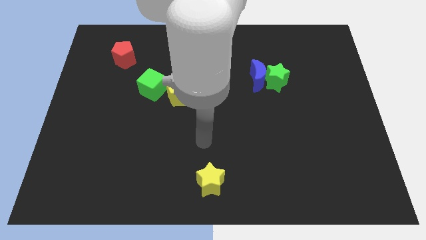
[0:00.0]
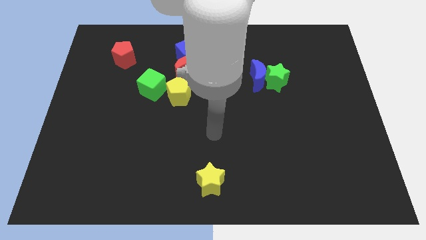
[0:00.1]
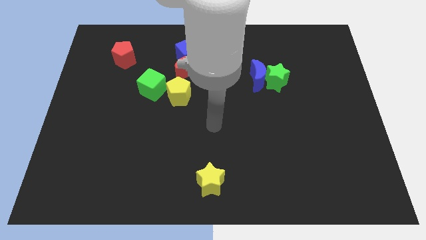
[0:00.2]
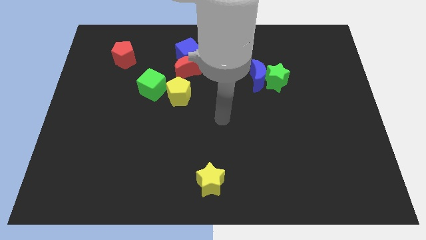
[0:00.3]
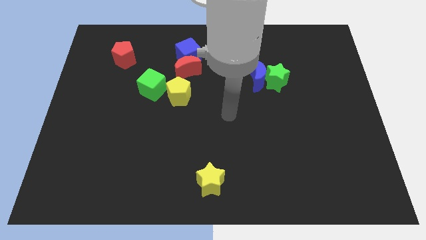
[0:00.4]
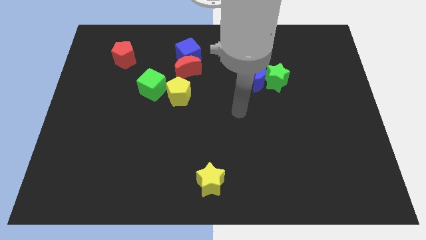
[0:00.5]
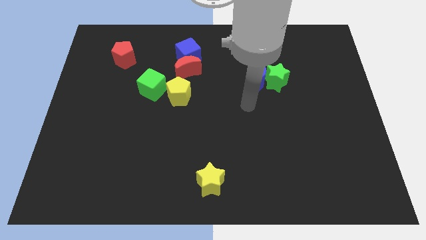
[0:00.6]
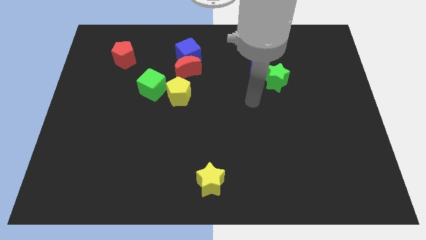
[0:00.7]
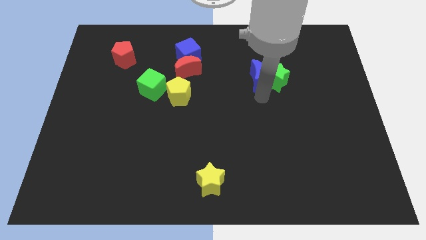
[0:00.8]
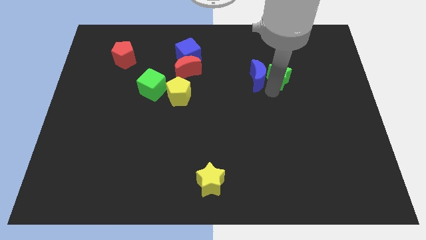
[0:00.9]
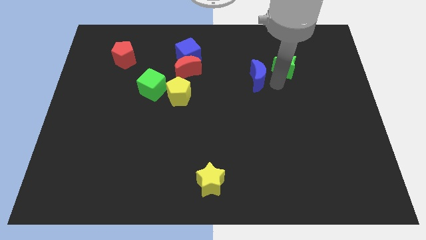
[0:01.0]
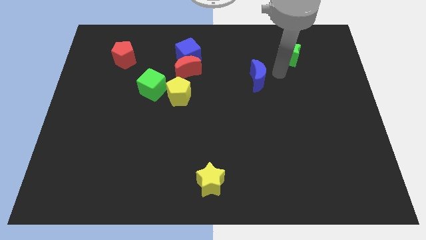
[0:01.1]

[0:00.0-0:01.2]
separate the blue moon from the green star

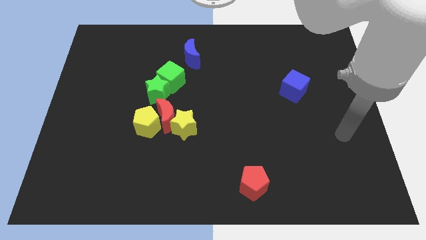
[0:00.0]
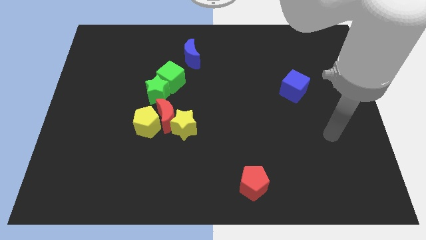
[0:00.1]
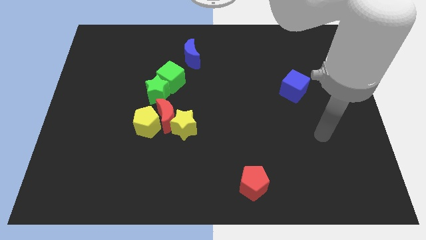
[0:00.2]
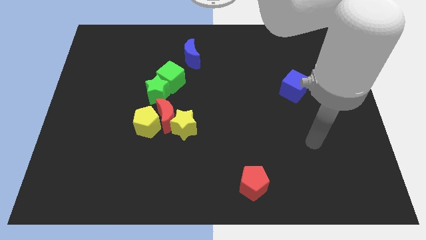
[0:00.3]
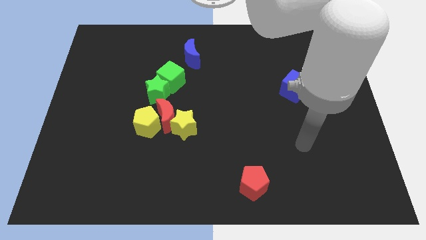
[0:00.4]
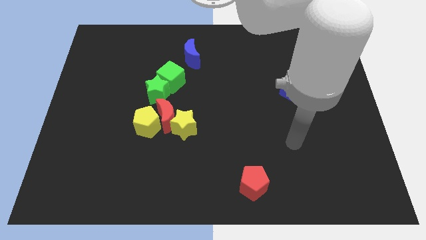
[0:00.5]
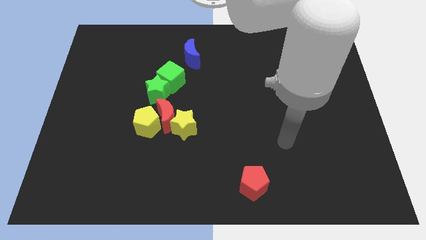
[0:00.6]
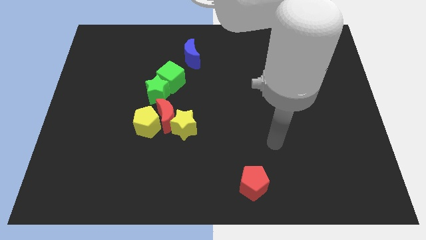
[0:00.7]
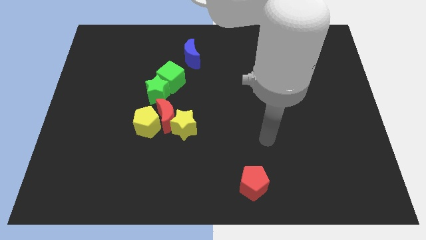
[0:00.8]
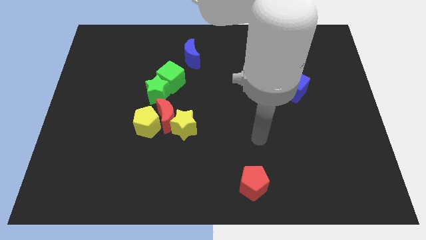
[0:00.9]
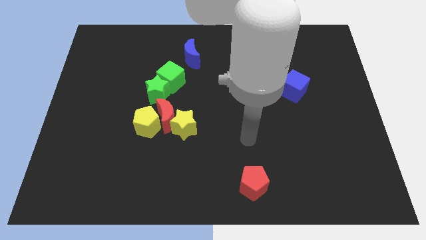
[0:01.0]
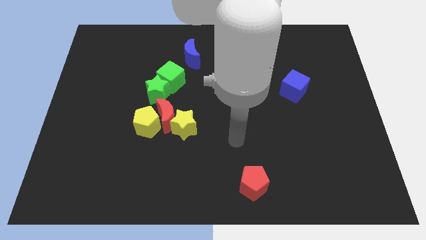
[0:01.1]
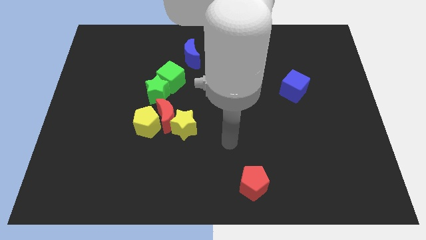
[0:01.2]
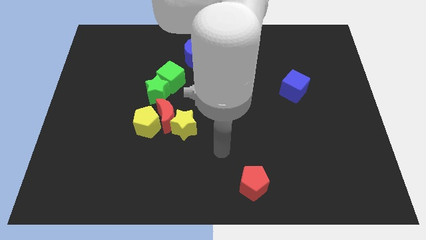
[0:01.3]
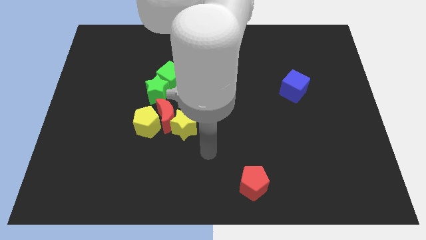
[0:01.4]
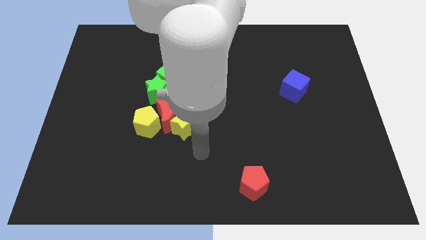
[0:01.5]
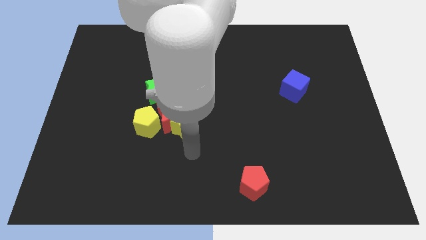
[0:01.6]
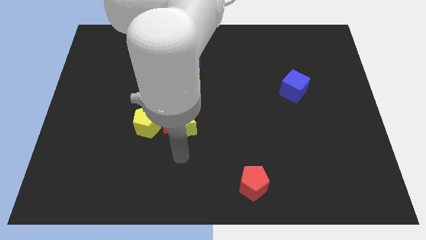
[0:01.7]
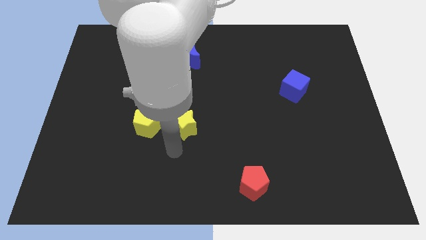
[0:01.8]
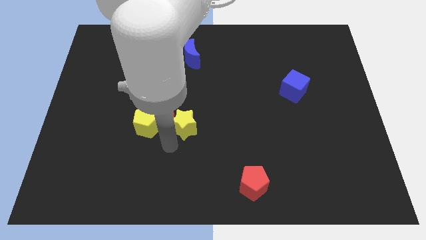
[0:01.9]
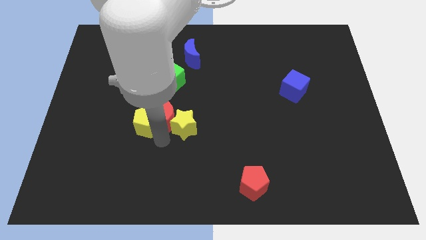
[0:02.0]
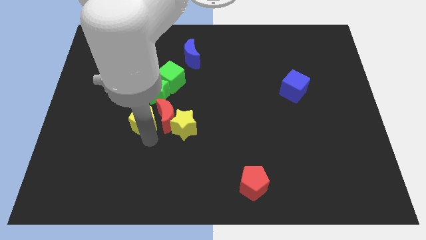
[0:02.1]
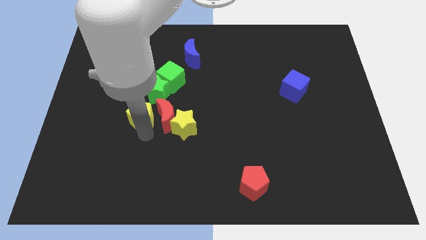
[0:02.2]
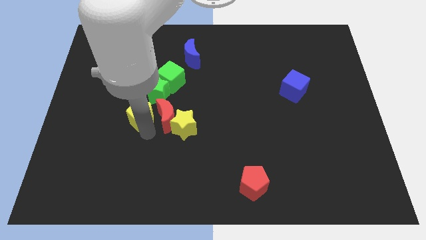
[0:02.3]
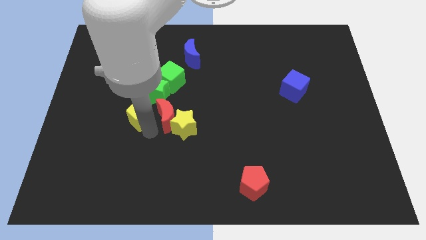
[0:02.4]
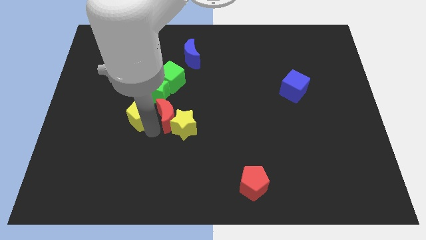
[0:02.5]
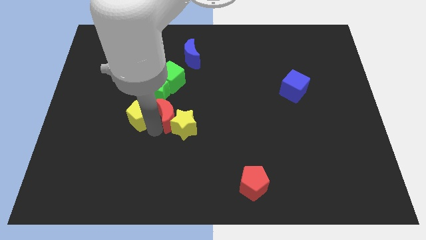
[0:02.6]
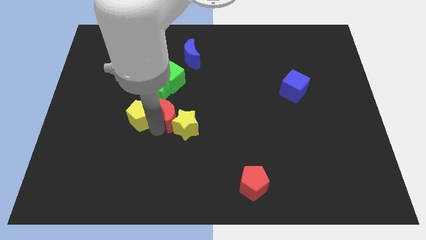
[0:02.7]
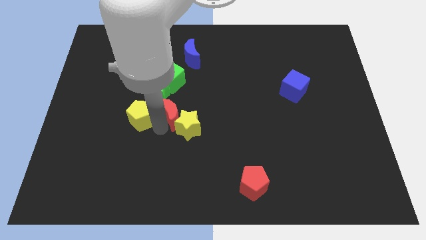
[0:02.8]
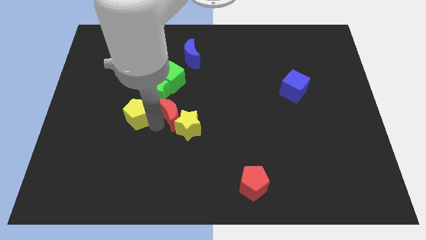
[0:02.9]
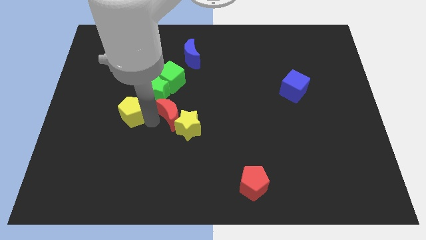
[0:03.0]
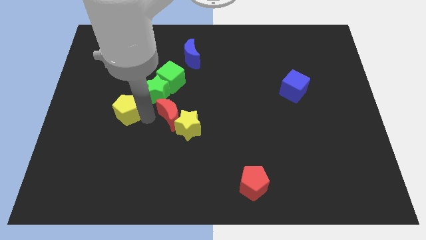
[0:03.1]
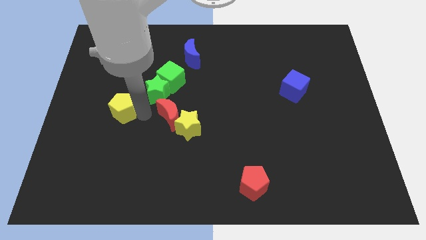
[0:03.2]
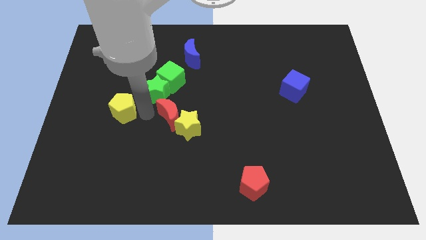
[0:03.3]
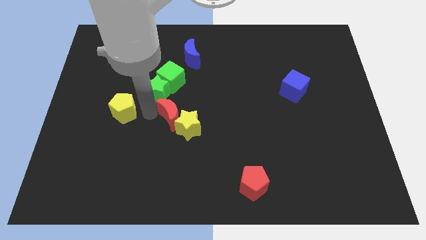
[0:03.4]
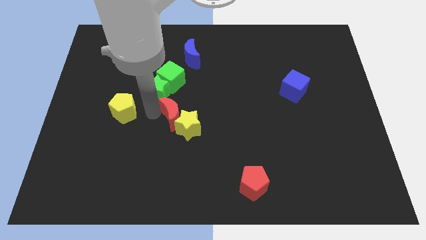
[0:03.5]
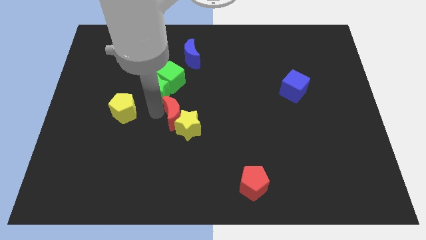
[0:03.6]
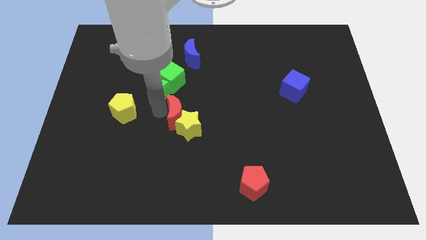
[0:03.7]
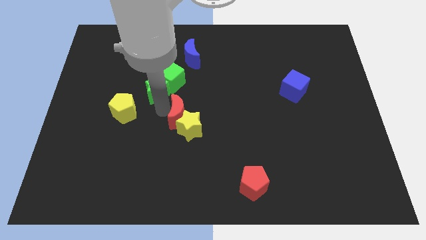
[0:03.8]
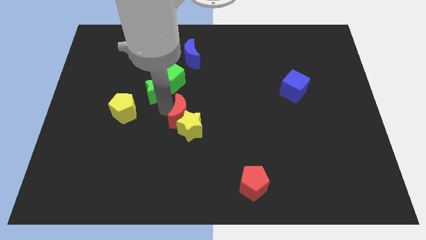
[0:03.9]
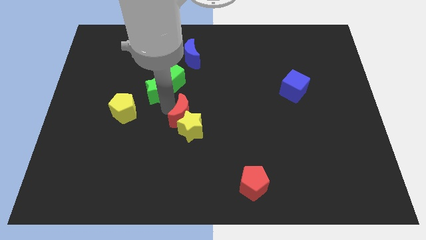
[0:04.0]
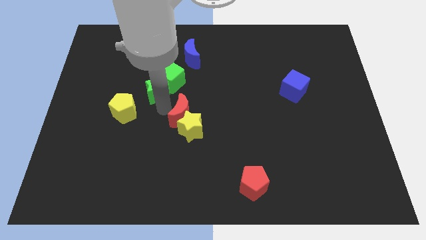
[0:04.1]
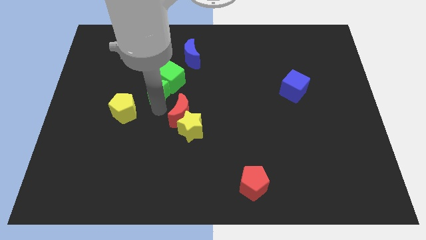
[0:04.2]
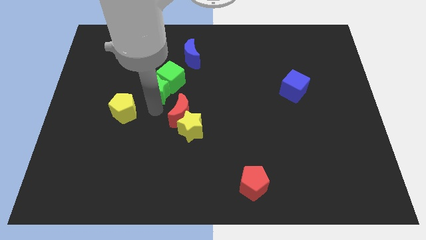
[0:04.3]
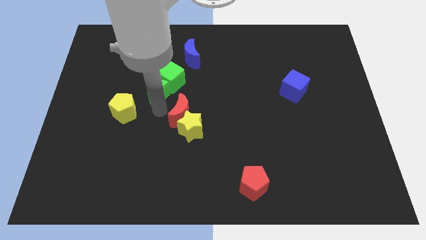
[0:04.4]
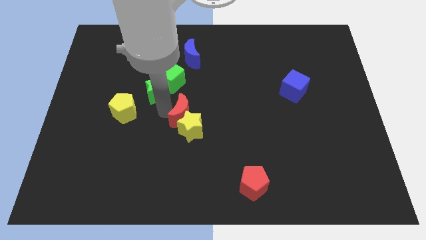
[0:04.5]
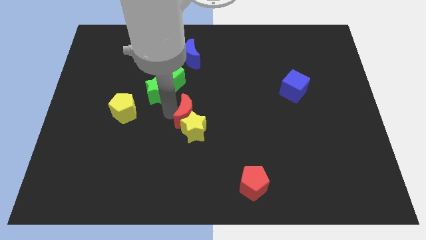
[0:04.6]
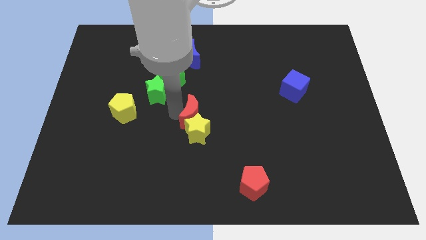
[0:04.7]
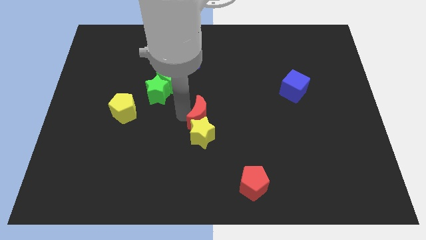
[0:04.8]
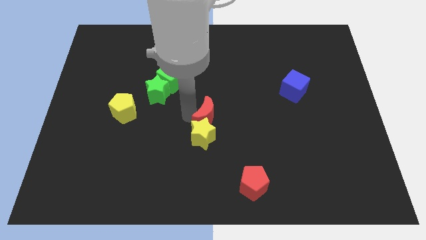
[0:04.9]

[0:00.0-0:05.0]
separate the red moon from the clump

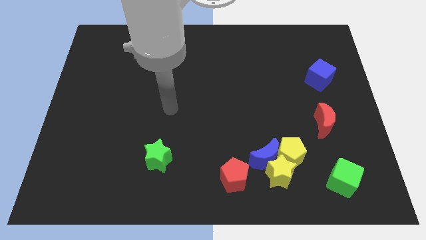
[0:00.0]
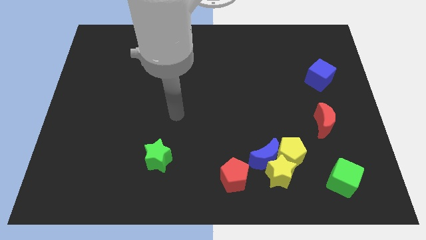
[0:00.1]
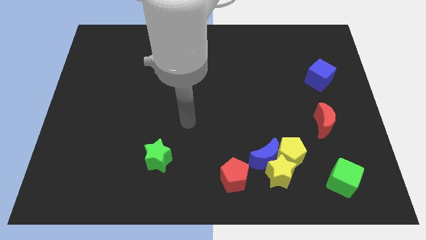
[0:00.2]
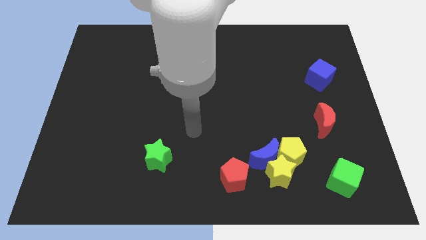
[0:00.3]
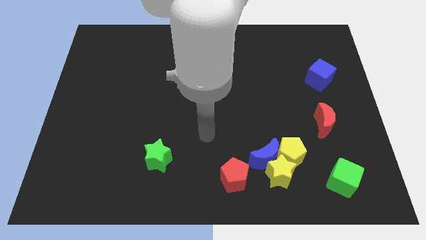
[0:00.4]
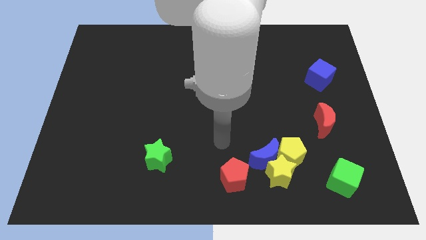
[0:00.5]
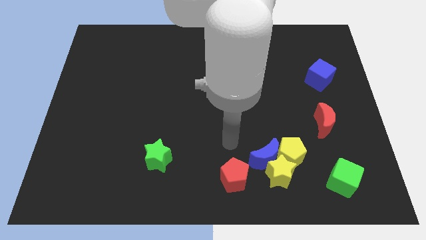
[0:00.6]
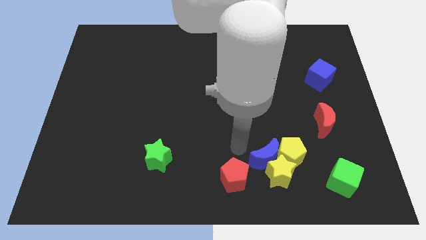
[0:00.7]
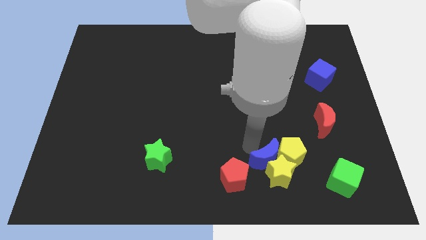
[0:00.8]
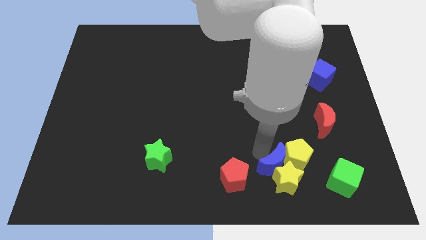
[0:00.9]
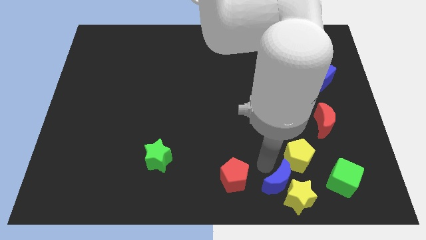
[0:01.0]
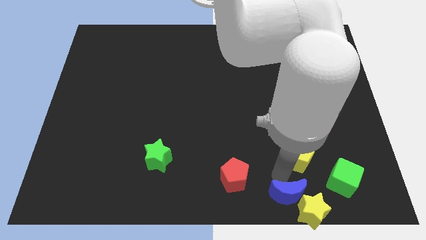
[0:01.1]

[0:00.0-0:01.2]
move the yellow pentagon away from the blue moon and yellow star

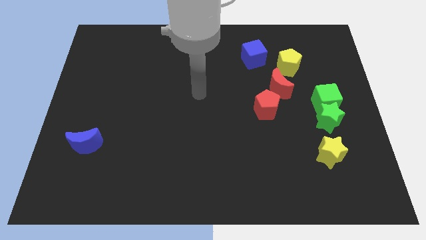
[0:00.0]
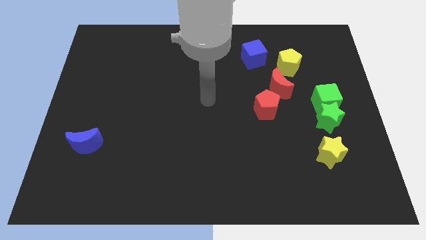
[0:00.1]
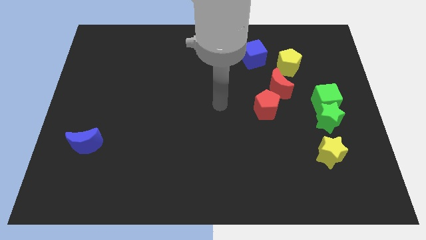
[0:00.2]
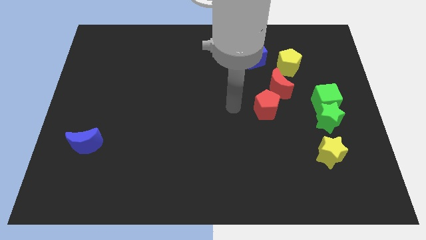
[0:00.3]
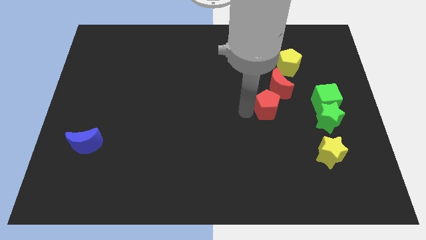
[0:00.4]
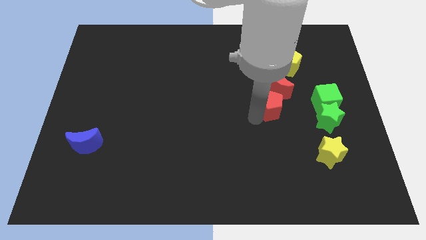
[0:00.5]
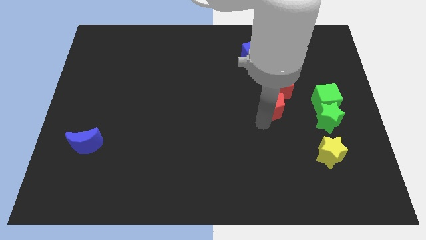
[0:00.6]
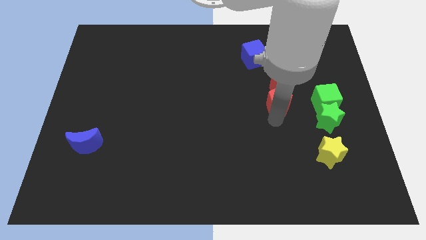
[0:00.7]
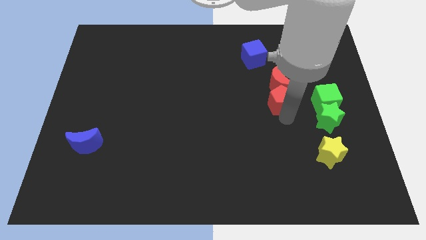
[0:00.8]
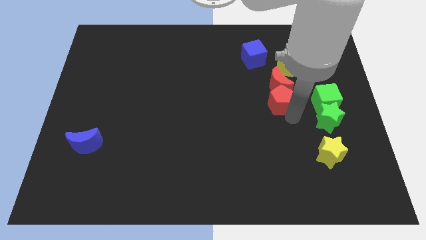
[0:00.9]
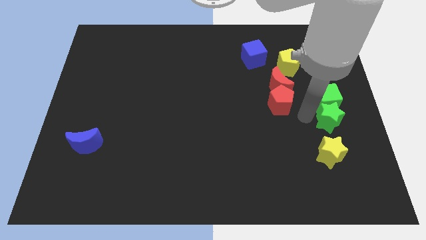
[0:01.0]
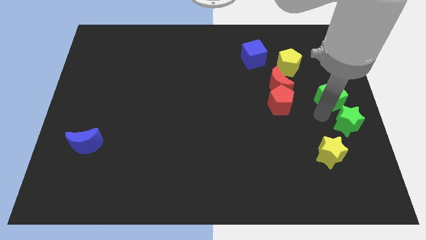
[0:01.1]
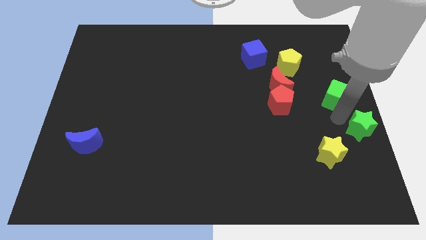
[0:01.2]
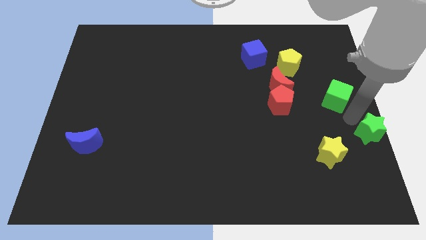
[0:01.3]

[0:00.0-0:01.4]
separate the green cube from the green star

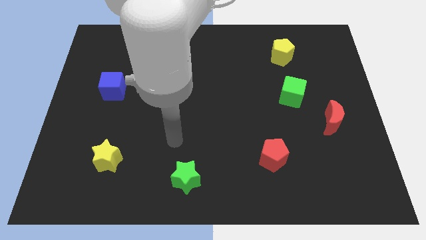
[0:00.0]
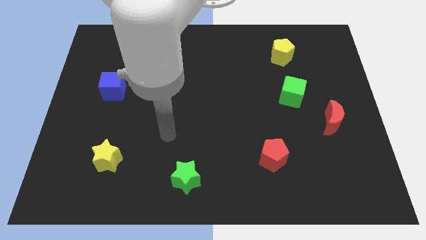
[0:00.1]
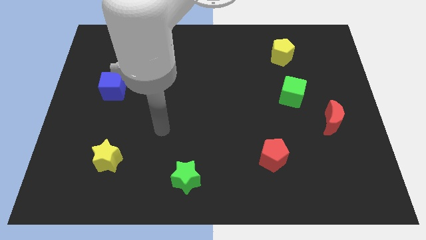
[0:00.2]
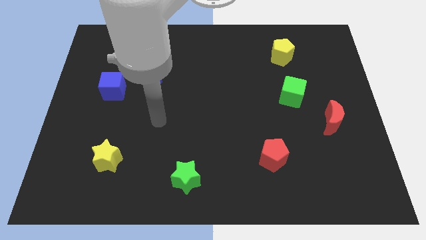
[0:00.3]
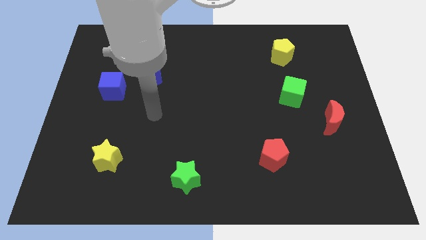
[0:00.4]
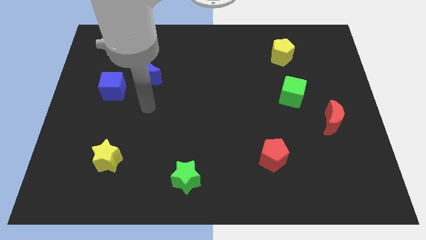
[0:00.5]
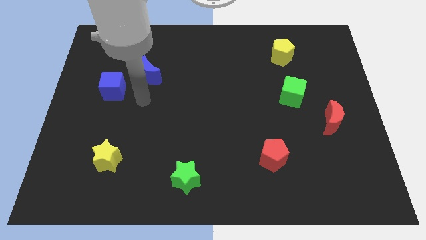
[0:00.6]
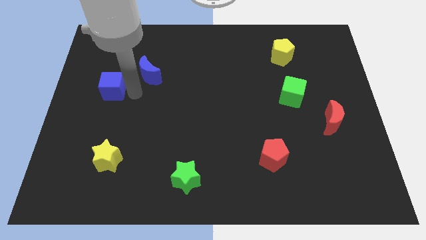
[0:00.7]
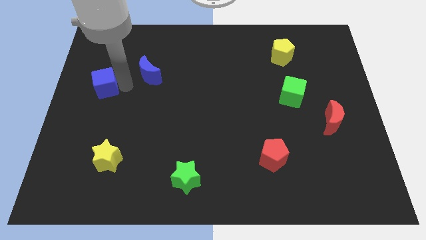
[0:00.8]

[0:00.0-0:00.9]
pull the blue moon apart from the blue cube
